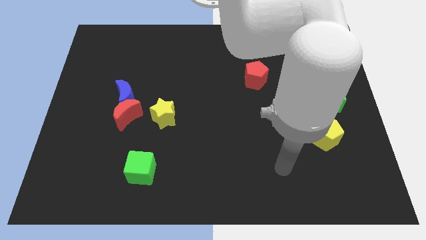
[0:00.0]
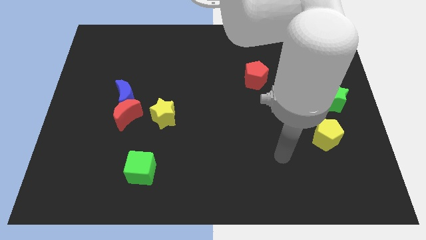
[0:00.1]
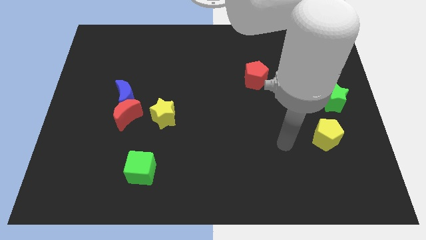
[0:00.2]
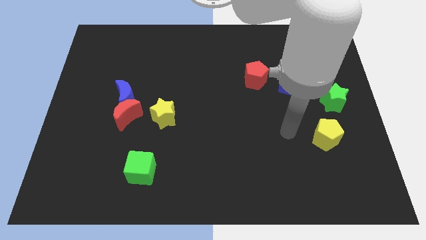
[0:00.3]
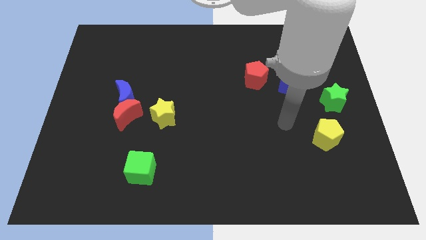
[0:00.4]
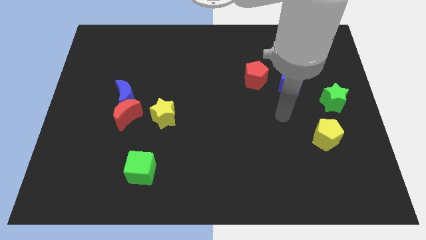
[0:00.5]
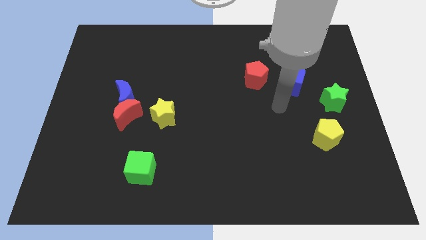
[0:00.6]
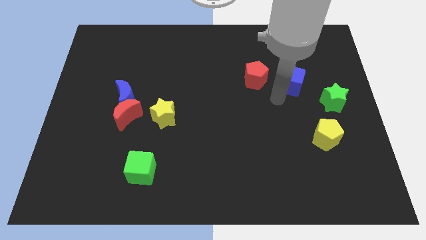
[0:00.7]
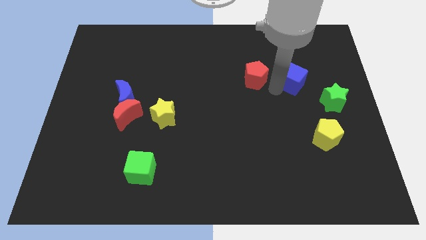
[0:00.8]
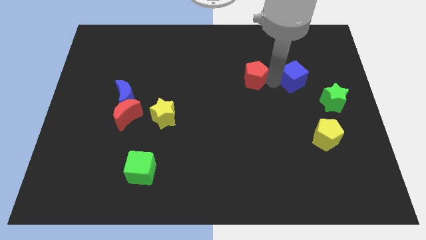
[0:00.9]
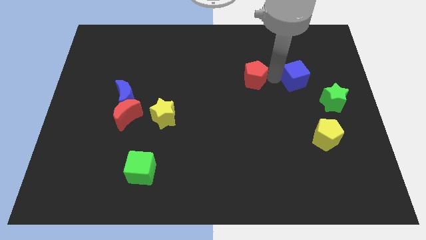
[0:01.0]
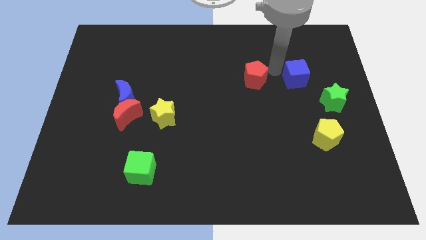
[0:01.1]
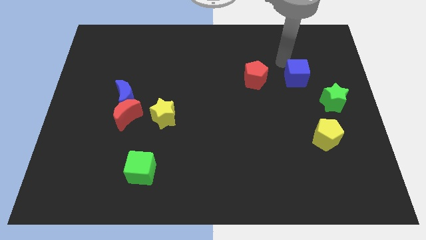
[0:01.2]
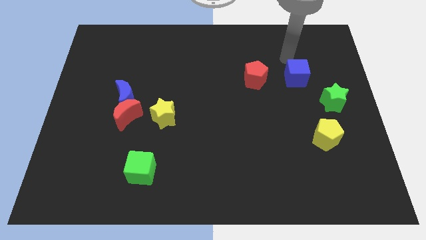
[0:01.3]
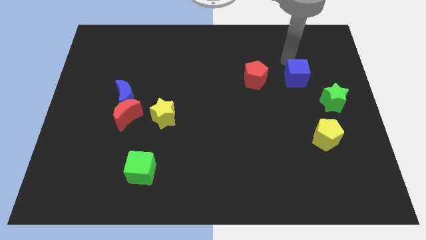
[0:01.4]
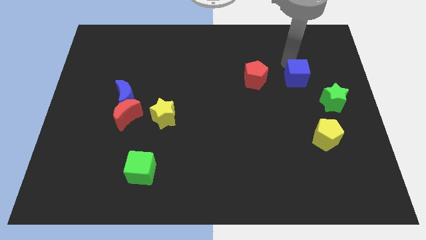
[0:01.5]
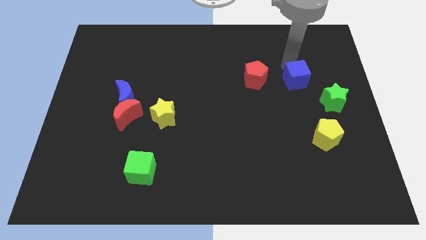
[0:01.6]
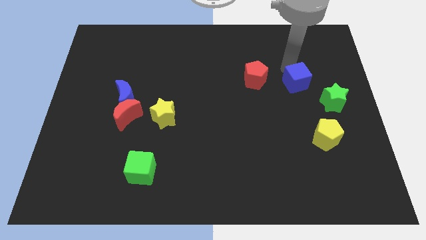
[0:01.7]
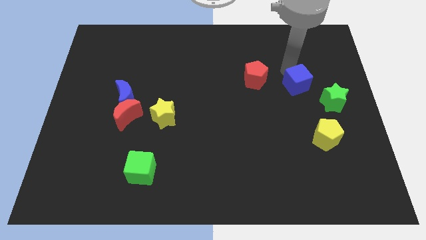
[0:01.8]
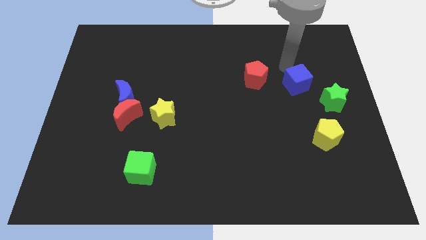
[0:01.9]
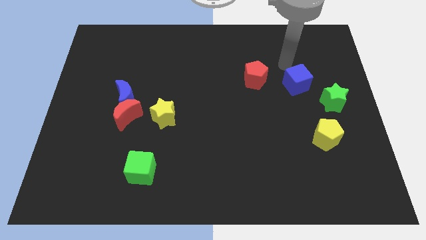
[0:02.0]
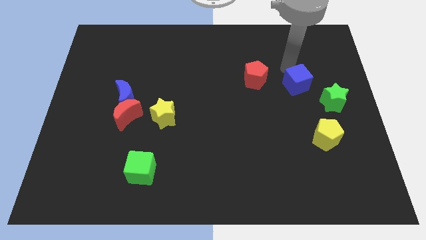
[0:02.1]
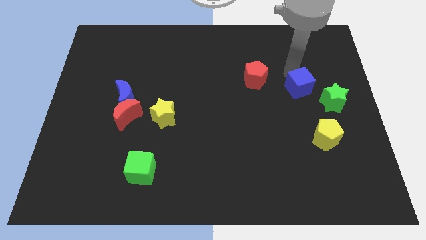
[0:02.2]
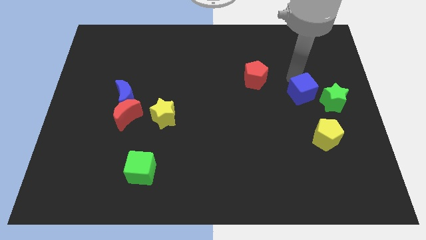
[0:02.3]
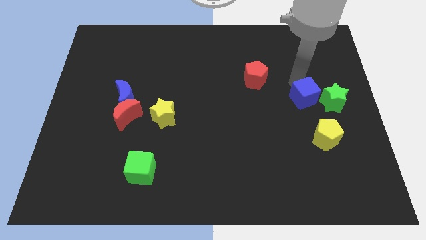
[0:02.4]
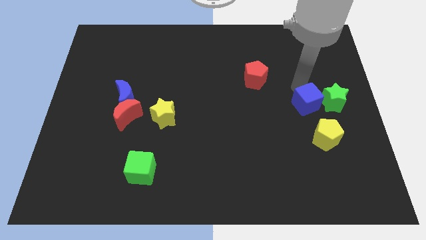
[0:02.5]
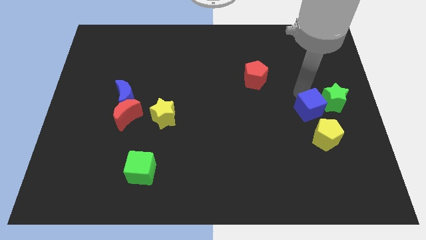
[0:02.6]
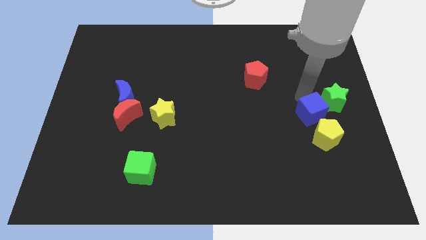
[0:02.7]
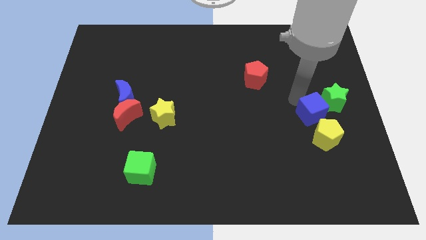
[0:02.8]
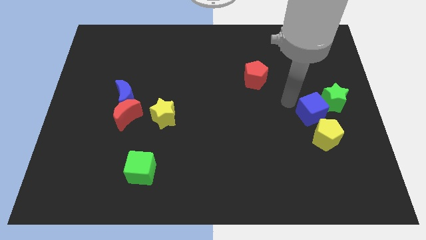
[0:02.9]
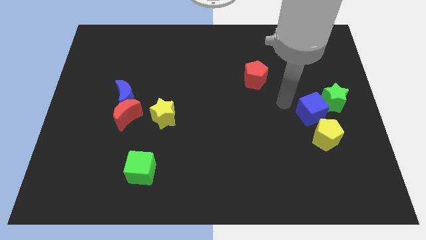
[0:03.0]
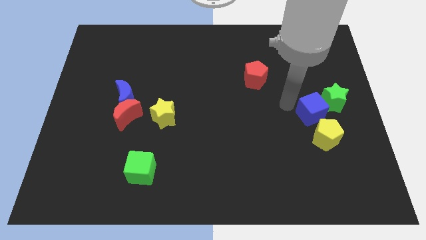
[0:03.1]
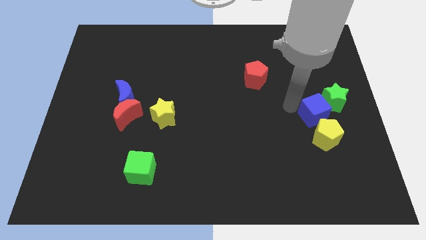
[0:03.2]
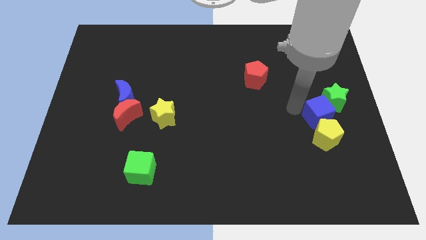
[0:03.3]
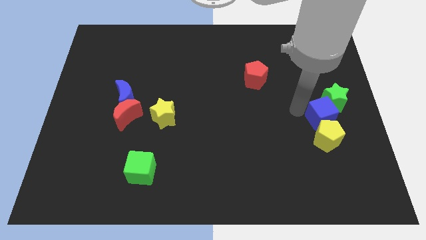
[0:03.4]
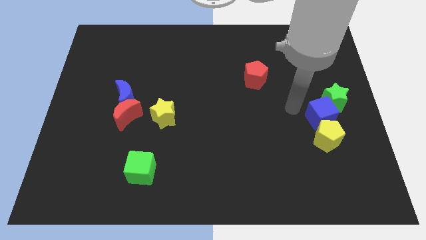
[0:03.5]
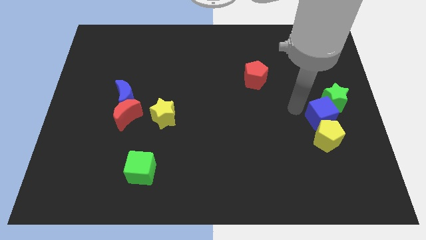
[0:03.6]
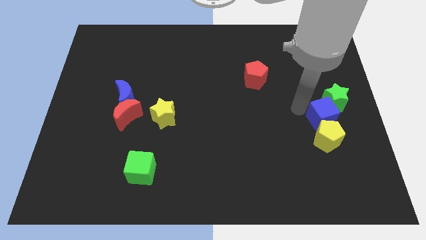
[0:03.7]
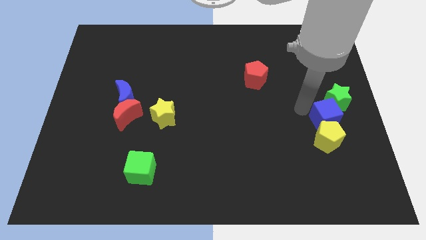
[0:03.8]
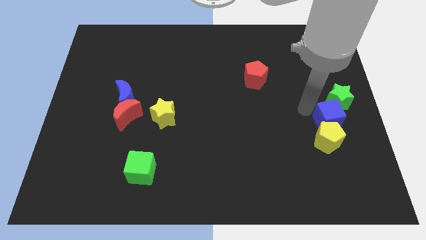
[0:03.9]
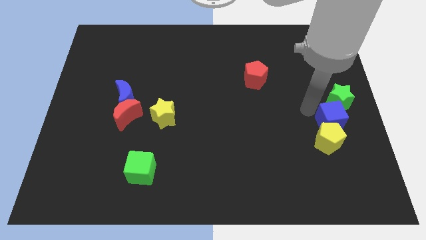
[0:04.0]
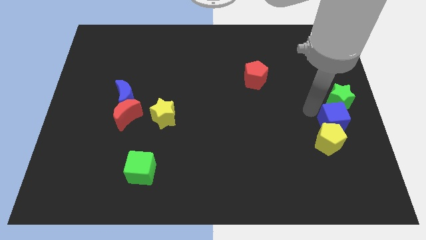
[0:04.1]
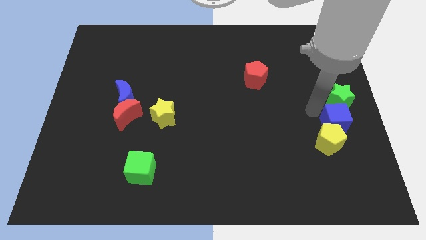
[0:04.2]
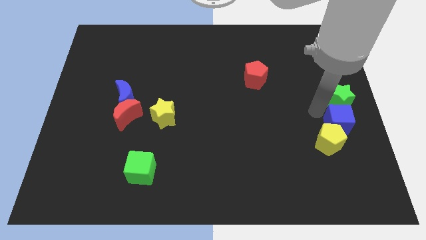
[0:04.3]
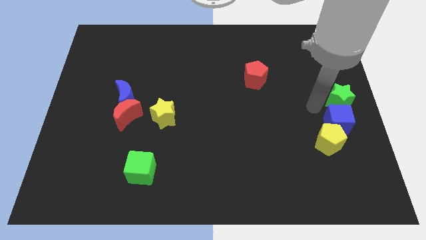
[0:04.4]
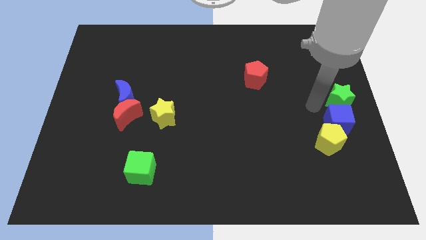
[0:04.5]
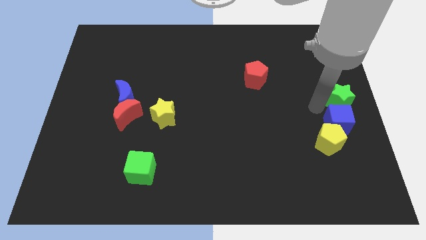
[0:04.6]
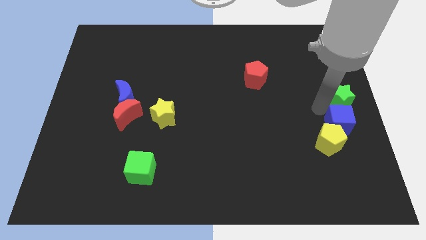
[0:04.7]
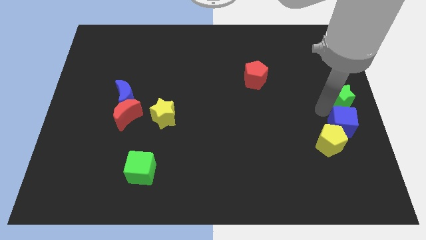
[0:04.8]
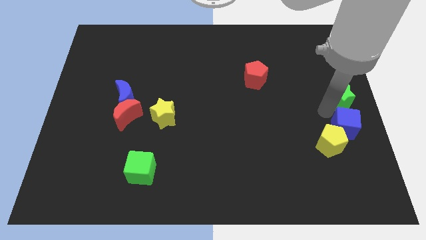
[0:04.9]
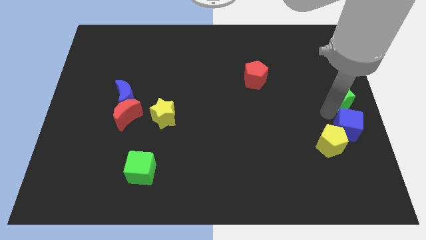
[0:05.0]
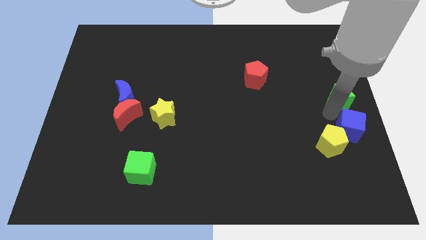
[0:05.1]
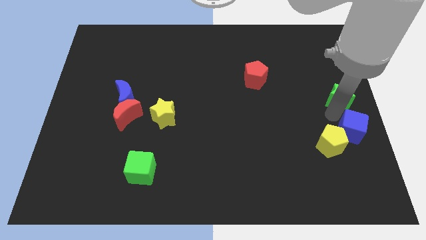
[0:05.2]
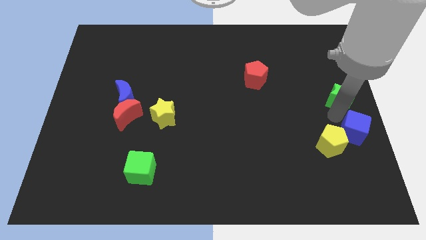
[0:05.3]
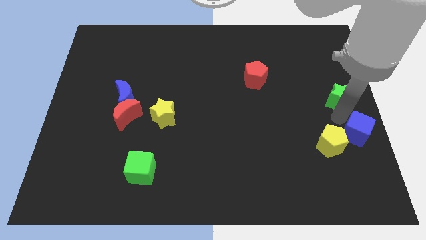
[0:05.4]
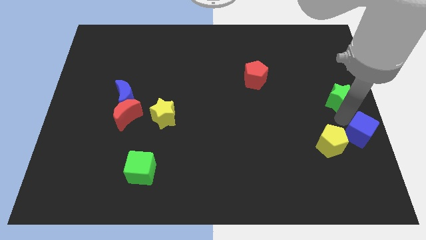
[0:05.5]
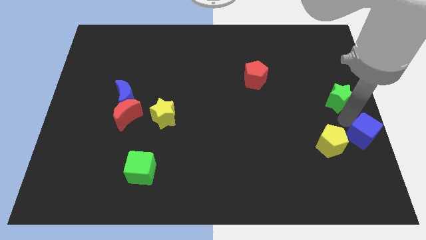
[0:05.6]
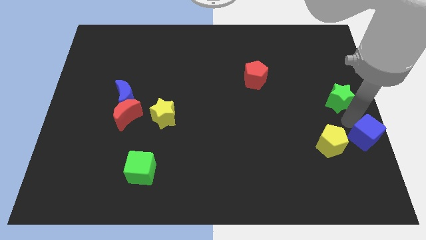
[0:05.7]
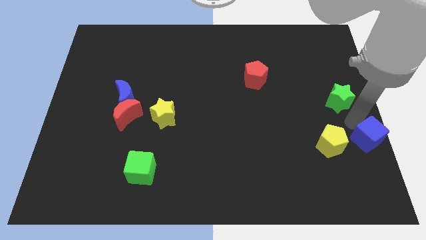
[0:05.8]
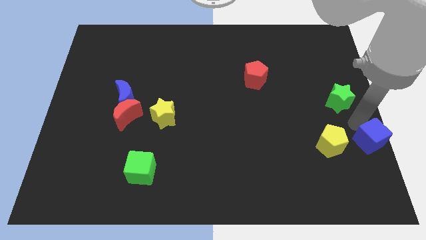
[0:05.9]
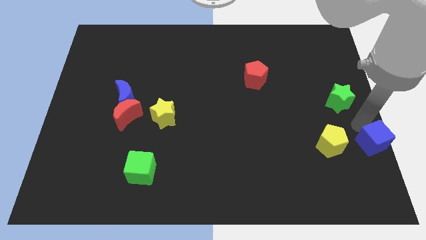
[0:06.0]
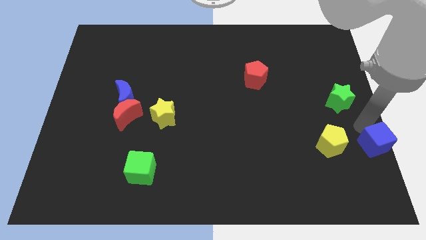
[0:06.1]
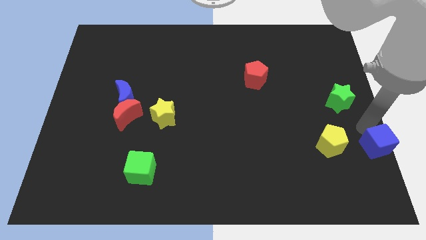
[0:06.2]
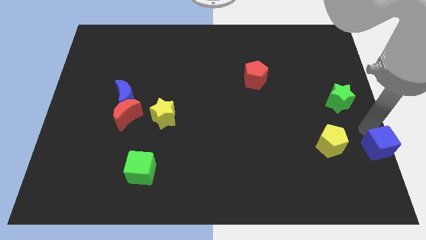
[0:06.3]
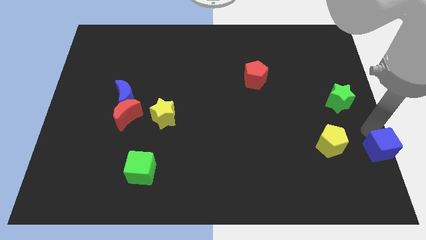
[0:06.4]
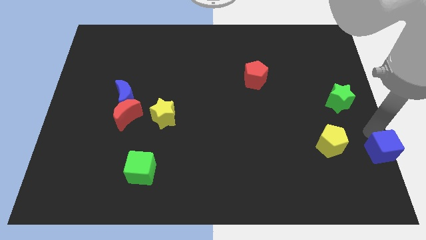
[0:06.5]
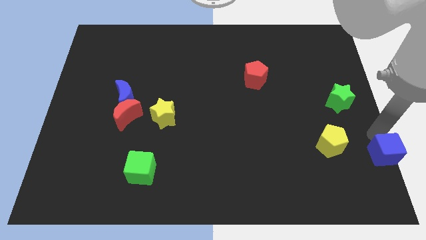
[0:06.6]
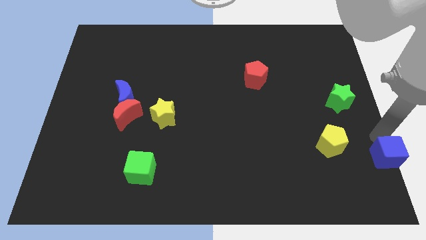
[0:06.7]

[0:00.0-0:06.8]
push the blue cube to the lower right corner
